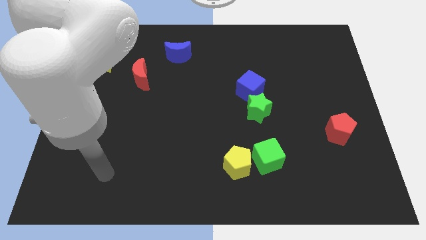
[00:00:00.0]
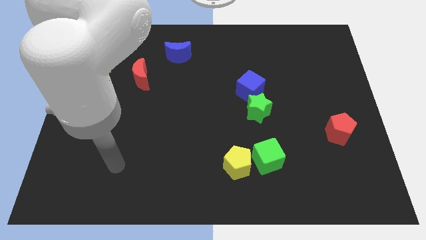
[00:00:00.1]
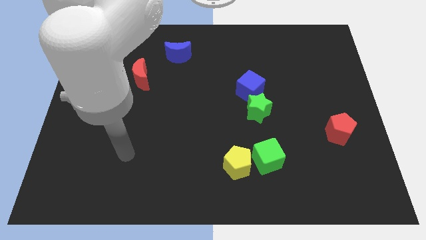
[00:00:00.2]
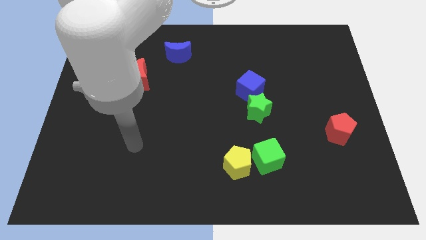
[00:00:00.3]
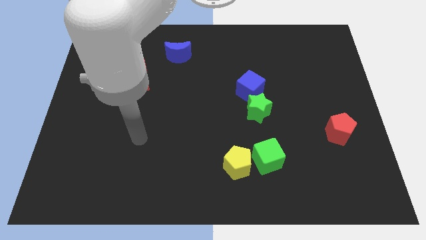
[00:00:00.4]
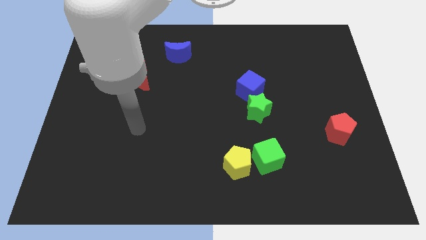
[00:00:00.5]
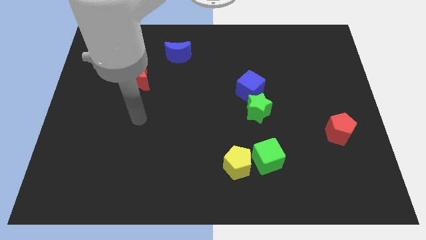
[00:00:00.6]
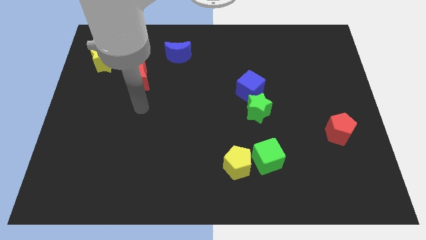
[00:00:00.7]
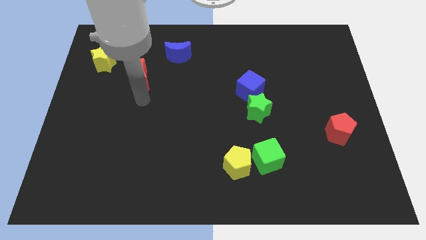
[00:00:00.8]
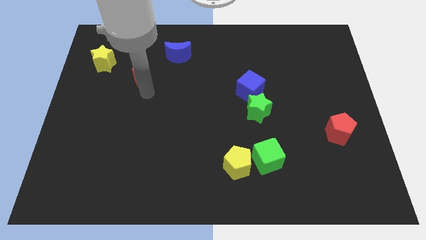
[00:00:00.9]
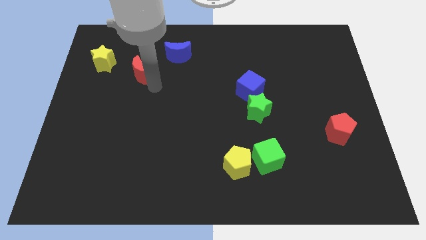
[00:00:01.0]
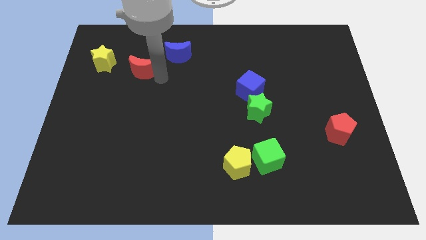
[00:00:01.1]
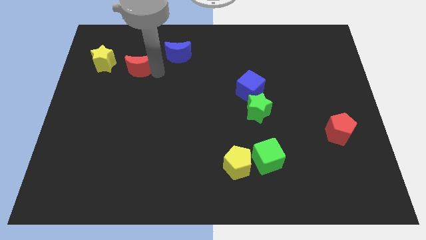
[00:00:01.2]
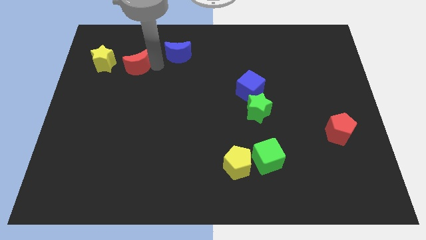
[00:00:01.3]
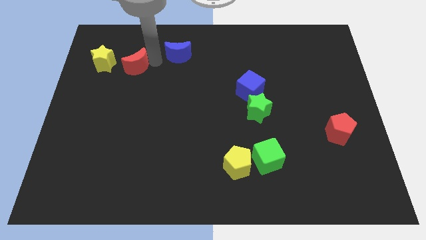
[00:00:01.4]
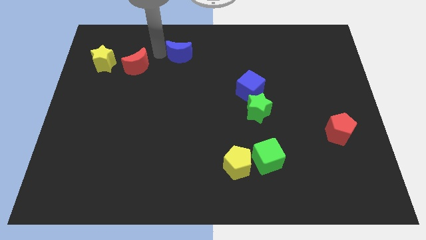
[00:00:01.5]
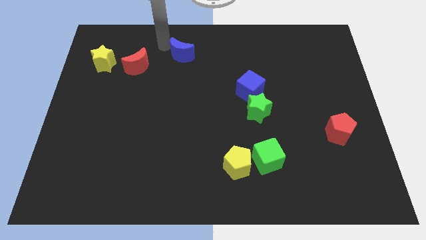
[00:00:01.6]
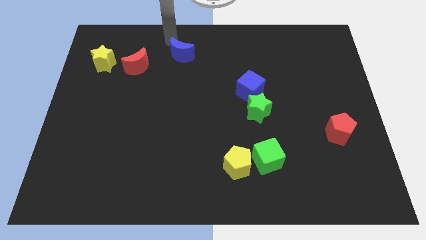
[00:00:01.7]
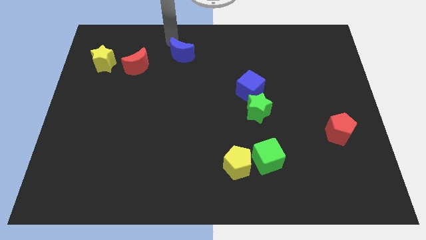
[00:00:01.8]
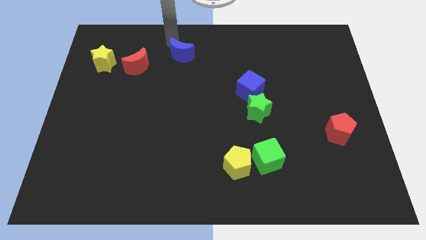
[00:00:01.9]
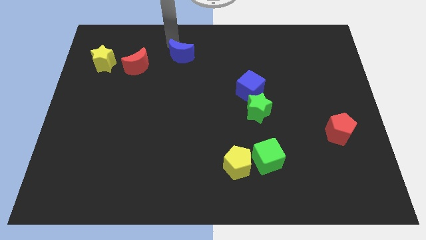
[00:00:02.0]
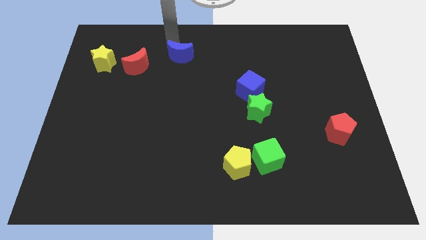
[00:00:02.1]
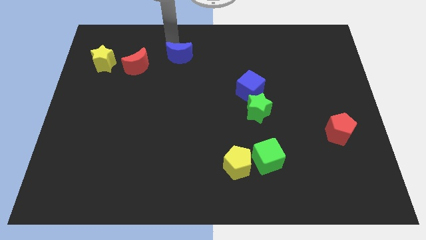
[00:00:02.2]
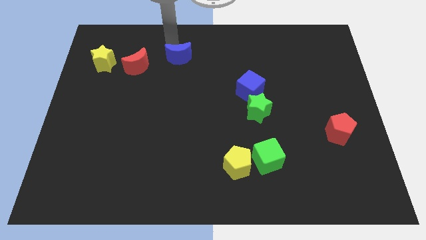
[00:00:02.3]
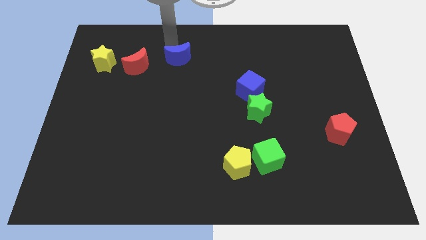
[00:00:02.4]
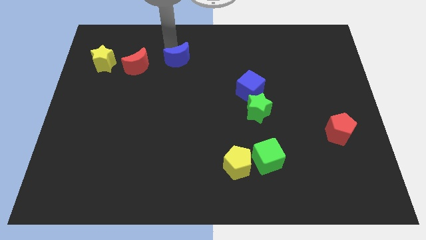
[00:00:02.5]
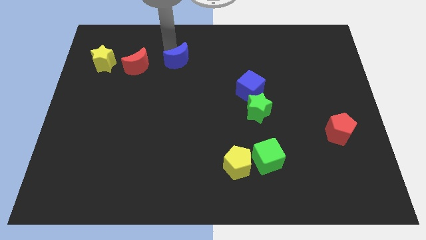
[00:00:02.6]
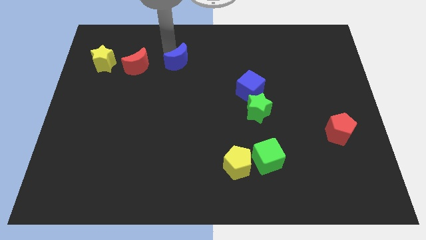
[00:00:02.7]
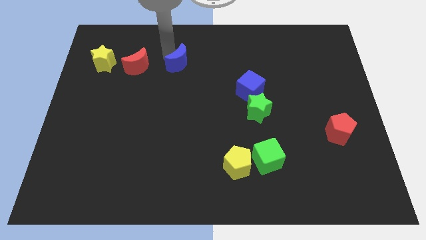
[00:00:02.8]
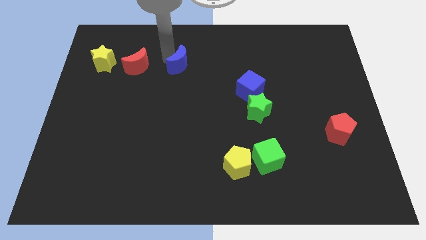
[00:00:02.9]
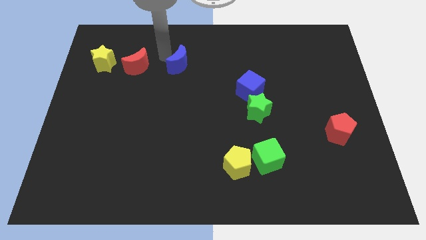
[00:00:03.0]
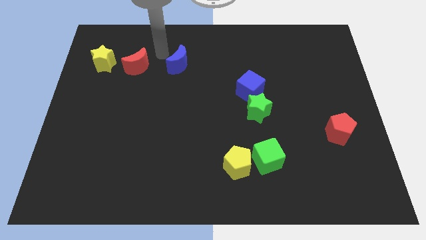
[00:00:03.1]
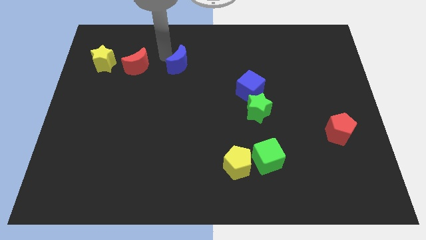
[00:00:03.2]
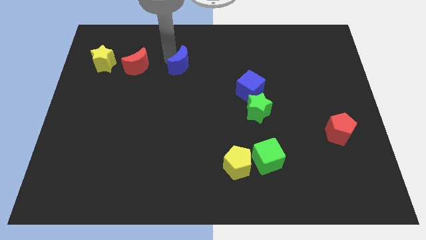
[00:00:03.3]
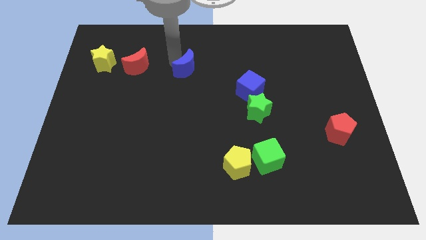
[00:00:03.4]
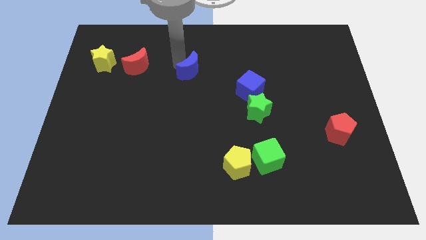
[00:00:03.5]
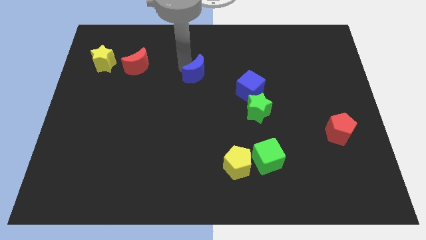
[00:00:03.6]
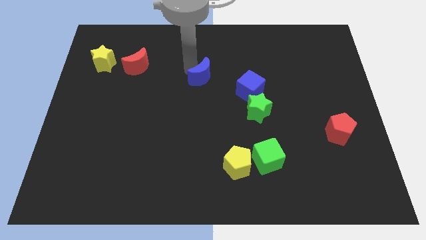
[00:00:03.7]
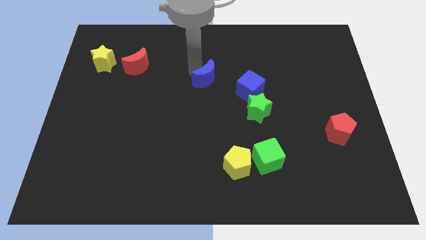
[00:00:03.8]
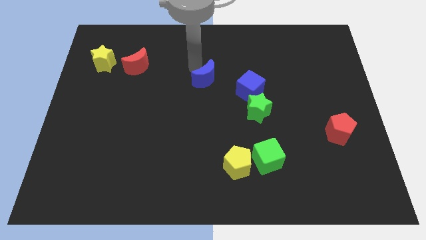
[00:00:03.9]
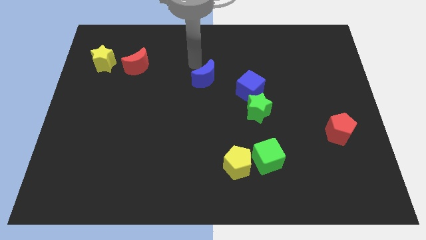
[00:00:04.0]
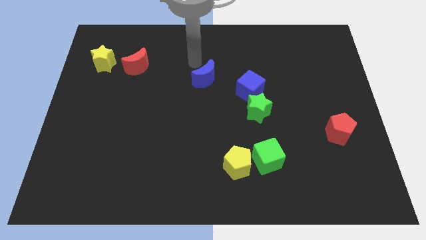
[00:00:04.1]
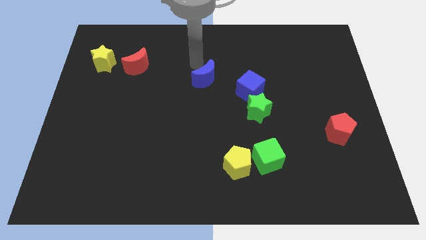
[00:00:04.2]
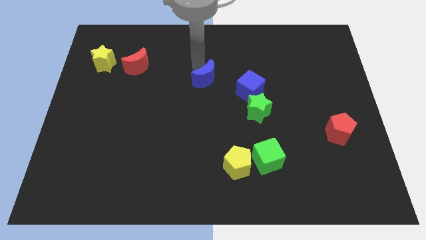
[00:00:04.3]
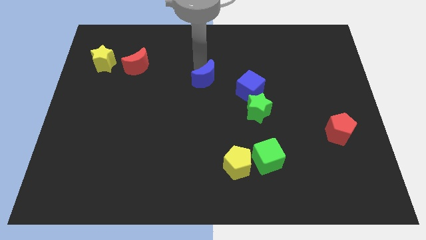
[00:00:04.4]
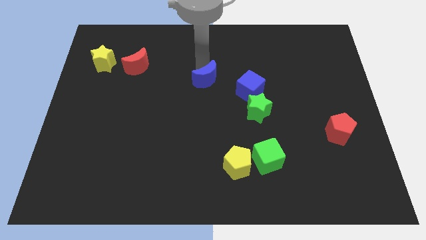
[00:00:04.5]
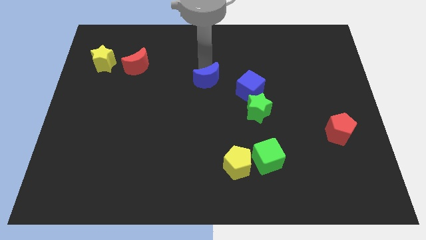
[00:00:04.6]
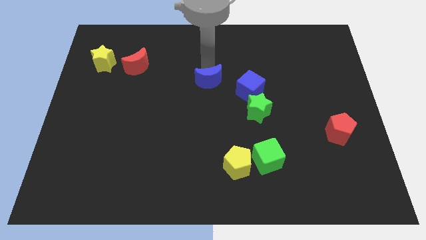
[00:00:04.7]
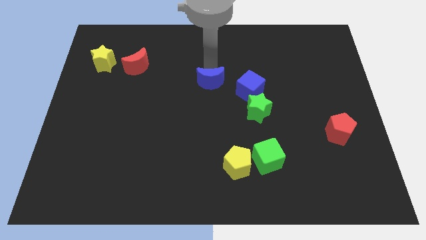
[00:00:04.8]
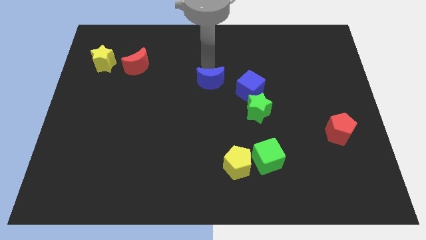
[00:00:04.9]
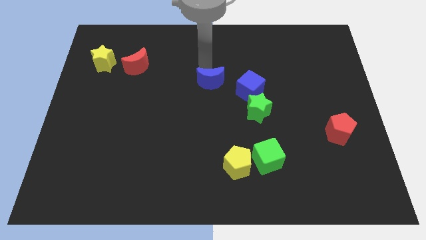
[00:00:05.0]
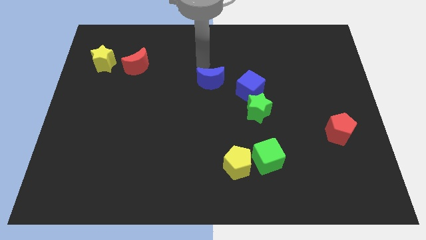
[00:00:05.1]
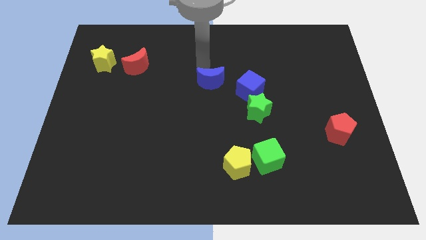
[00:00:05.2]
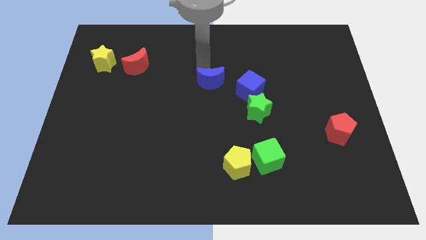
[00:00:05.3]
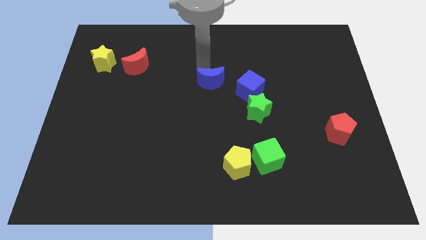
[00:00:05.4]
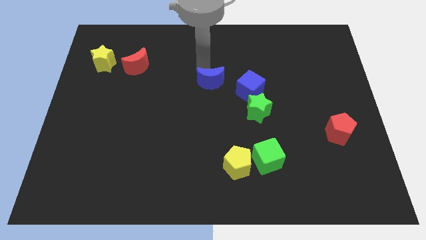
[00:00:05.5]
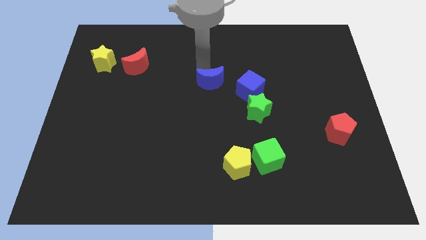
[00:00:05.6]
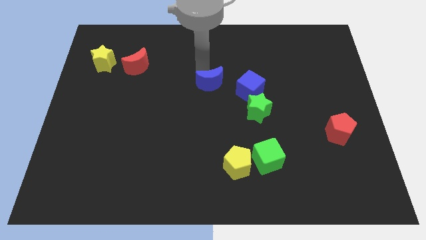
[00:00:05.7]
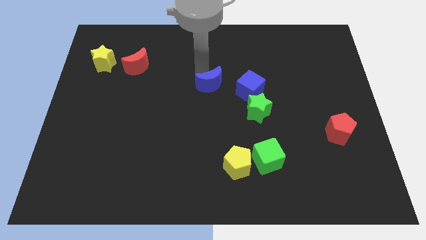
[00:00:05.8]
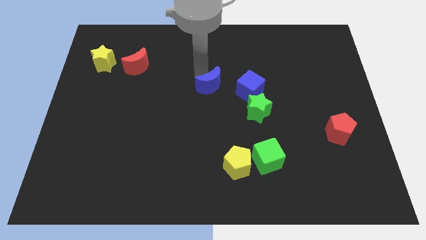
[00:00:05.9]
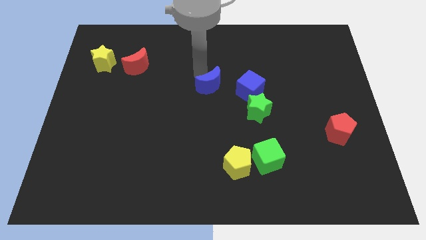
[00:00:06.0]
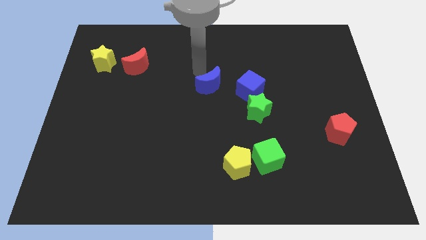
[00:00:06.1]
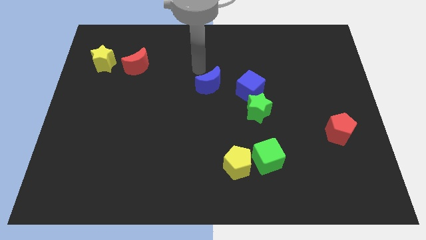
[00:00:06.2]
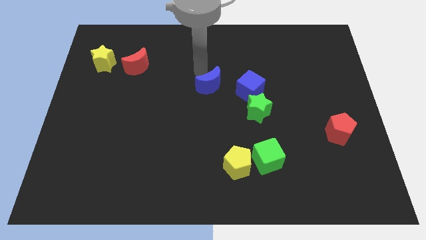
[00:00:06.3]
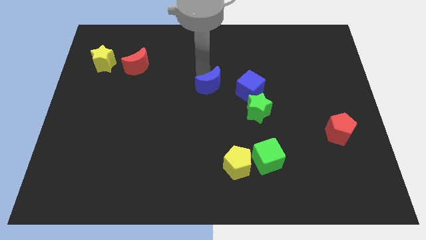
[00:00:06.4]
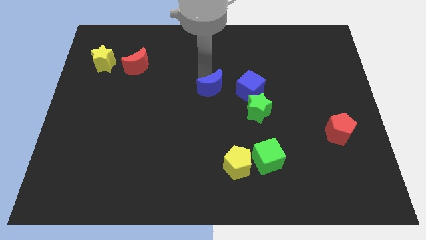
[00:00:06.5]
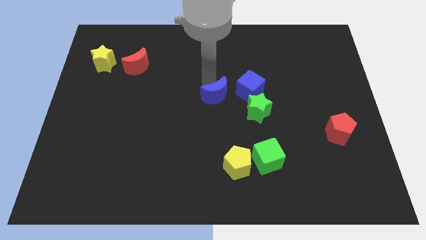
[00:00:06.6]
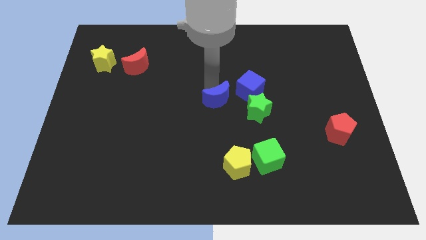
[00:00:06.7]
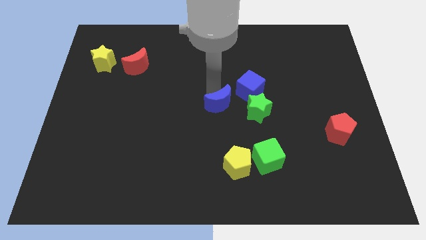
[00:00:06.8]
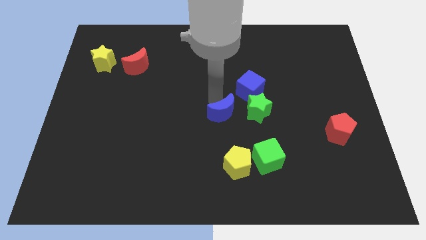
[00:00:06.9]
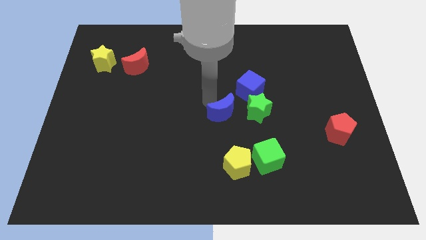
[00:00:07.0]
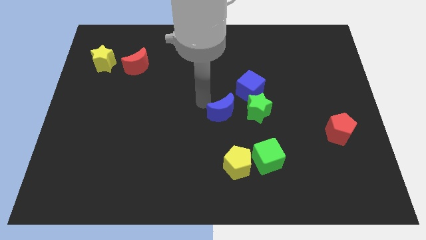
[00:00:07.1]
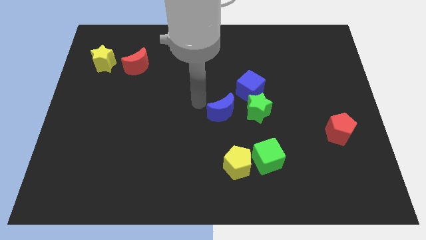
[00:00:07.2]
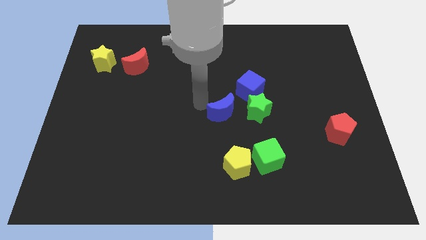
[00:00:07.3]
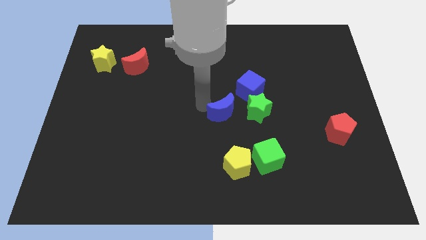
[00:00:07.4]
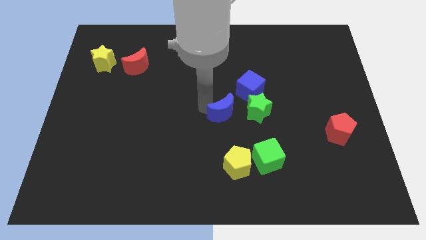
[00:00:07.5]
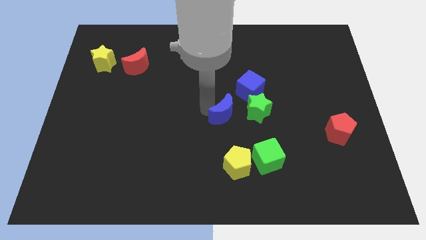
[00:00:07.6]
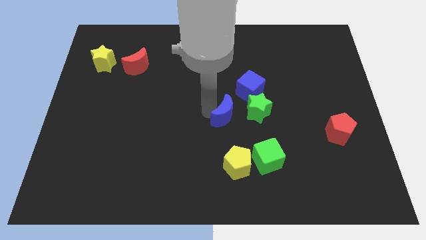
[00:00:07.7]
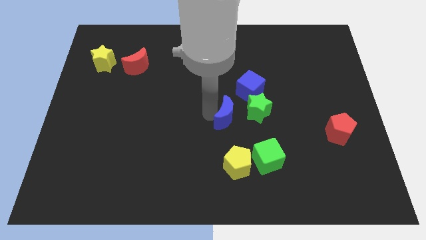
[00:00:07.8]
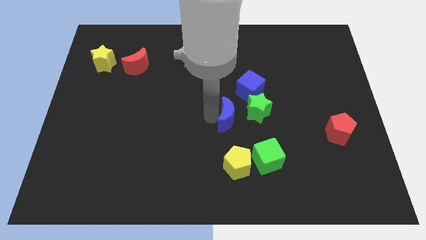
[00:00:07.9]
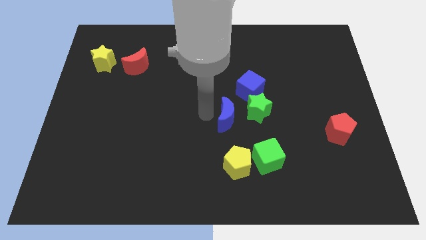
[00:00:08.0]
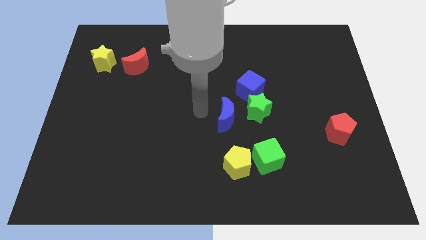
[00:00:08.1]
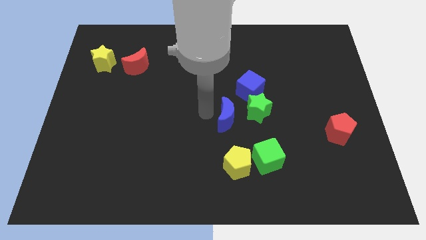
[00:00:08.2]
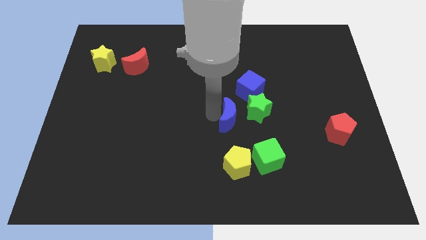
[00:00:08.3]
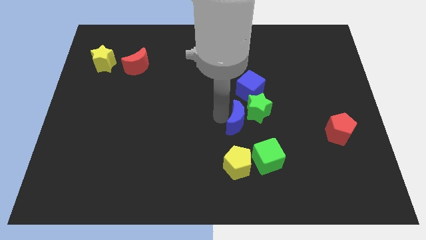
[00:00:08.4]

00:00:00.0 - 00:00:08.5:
put the blue moon to the bottom of the blue cube
